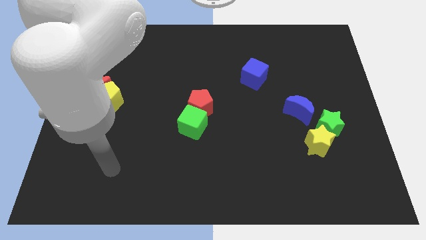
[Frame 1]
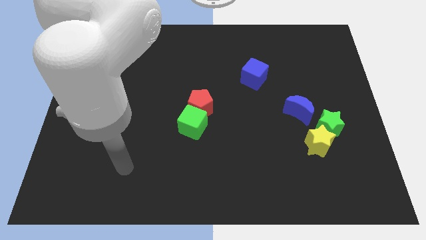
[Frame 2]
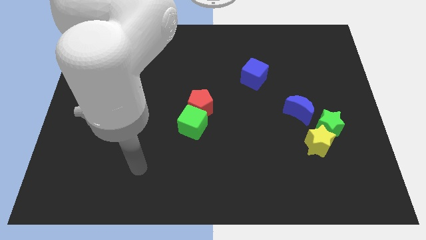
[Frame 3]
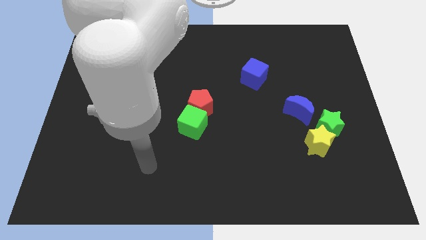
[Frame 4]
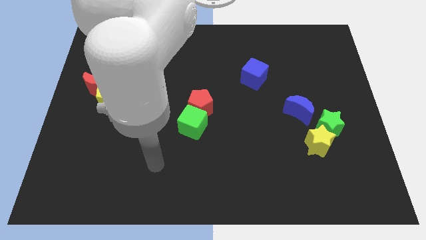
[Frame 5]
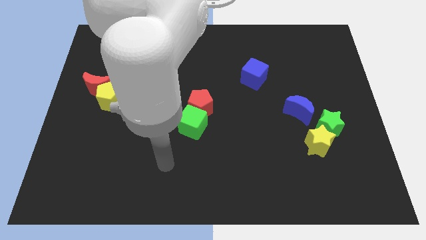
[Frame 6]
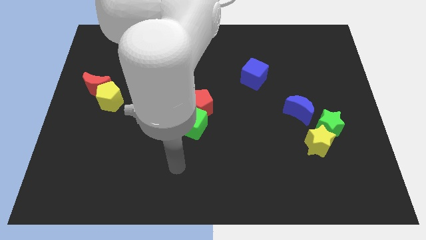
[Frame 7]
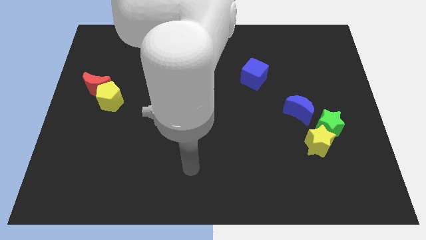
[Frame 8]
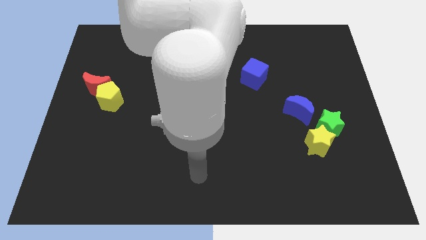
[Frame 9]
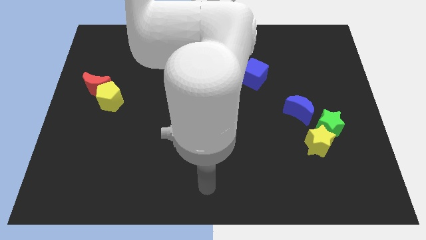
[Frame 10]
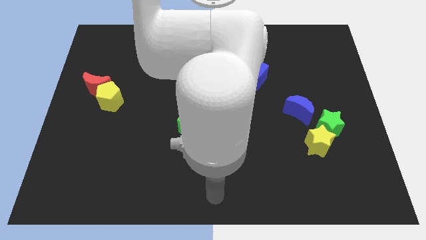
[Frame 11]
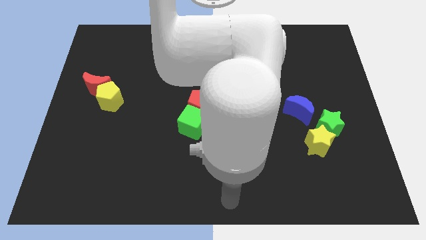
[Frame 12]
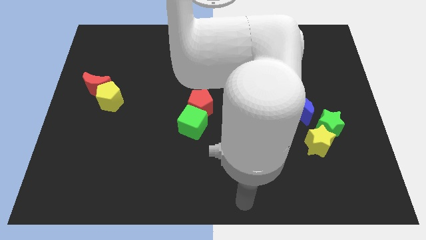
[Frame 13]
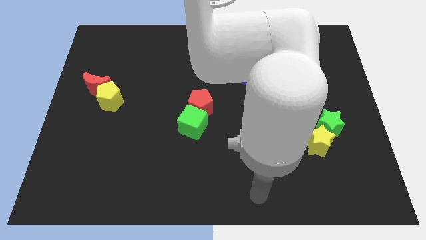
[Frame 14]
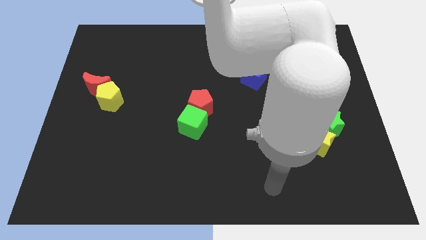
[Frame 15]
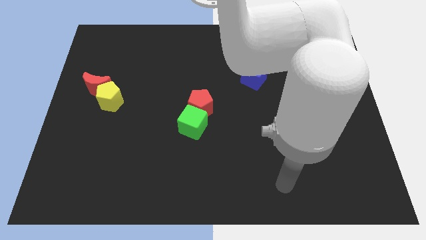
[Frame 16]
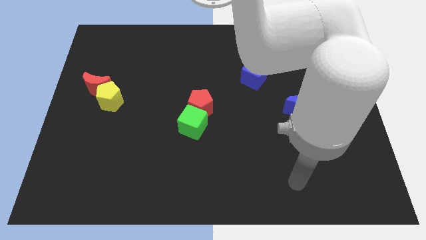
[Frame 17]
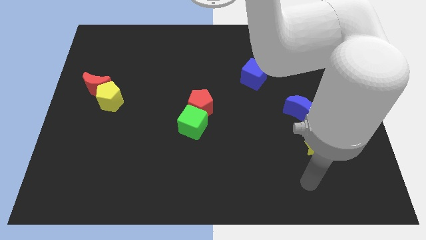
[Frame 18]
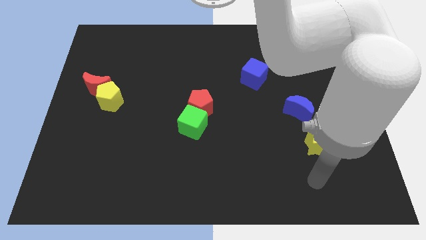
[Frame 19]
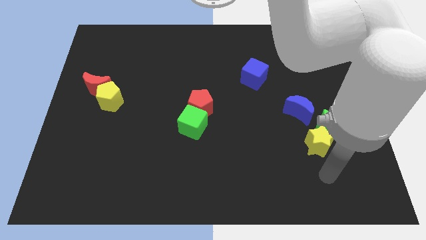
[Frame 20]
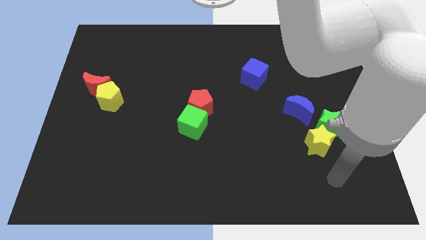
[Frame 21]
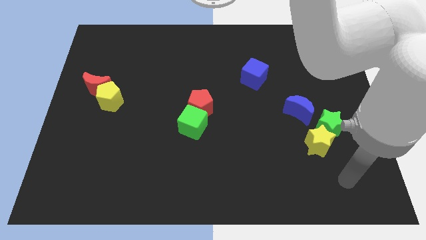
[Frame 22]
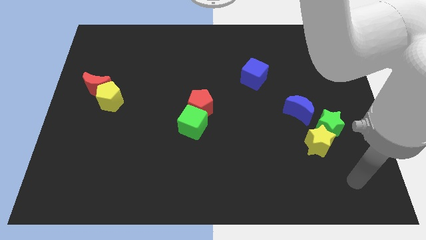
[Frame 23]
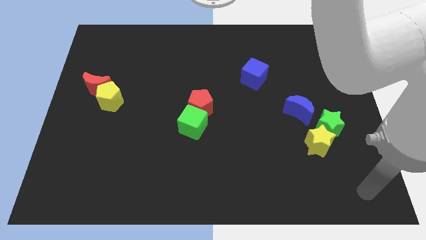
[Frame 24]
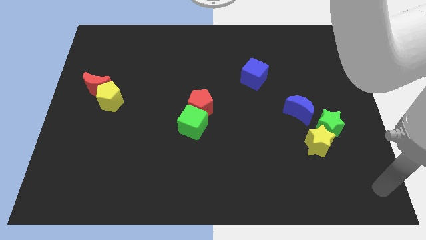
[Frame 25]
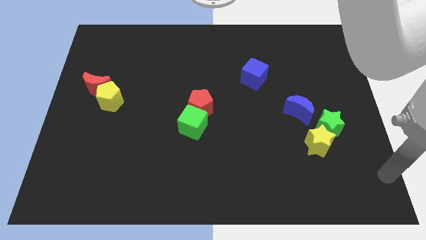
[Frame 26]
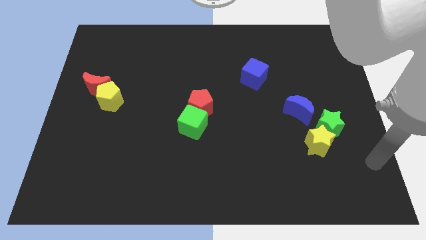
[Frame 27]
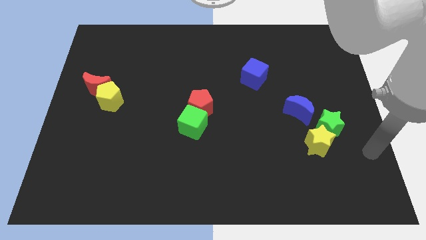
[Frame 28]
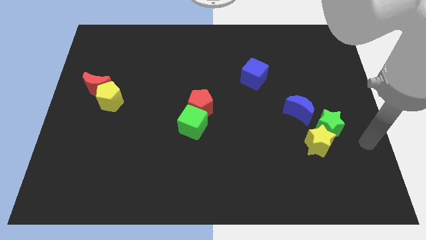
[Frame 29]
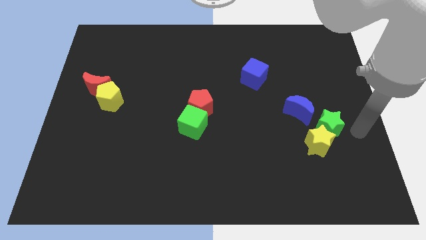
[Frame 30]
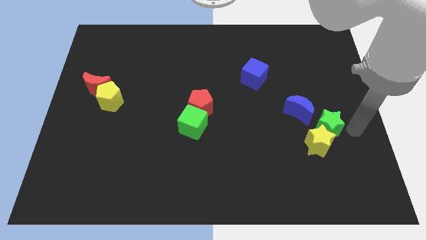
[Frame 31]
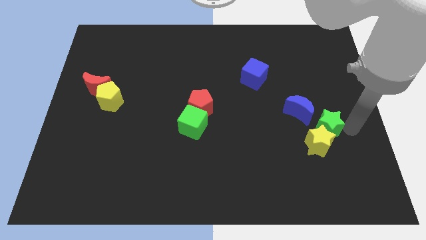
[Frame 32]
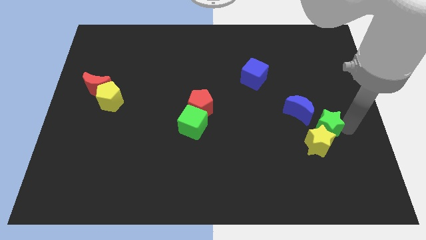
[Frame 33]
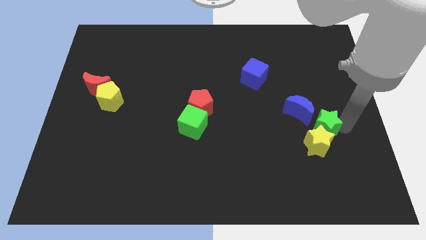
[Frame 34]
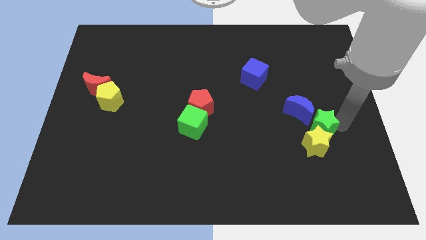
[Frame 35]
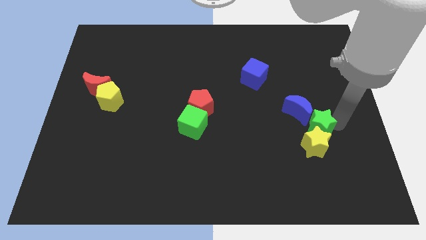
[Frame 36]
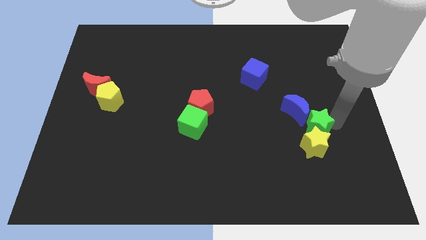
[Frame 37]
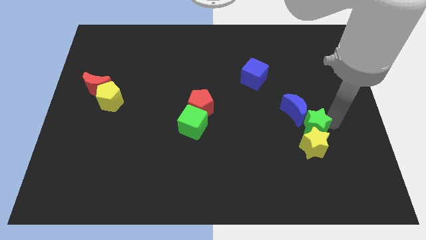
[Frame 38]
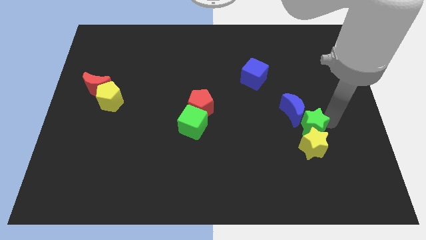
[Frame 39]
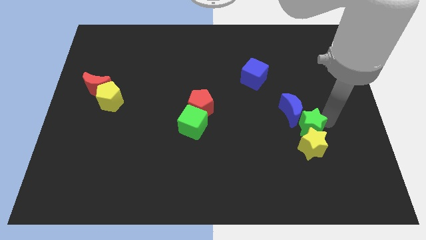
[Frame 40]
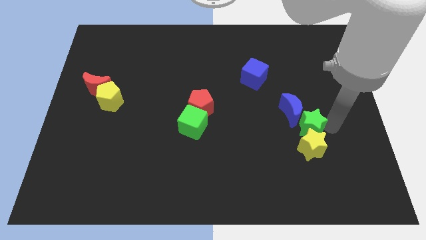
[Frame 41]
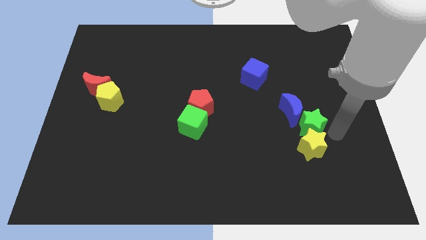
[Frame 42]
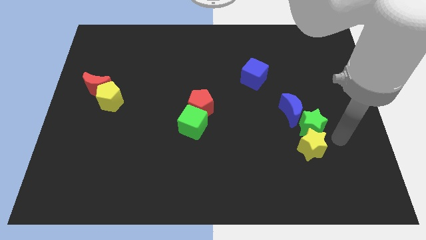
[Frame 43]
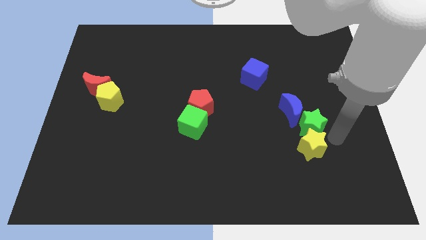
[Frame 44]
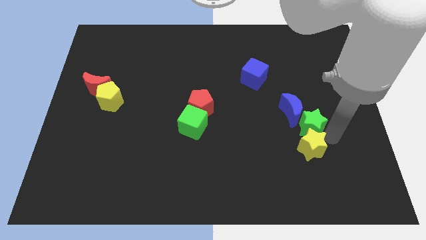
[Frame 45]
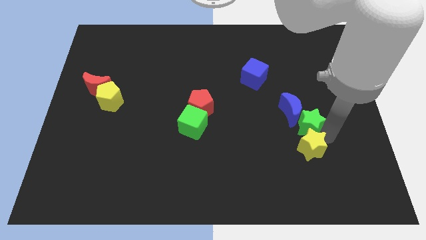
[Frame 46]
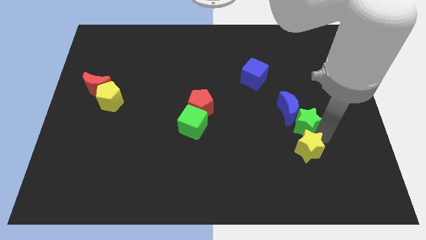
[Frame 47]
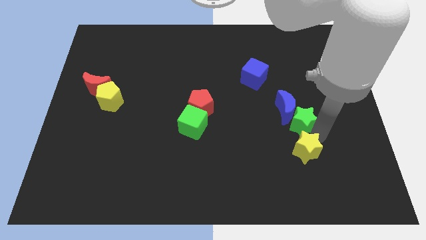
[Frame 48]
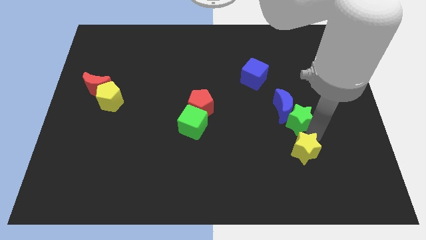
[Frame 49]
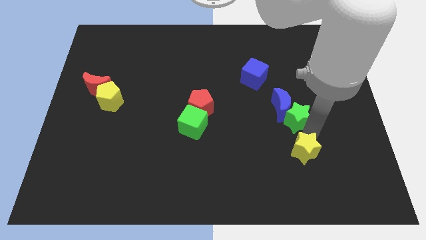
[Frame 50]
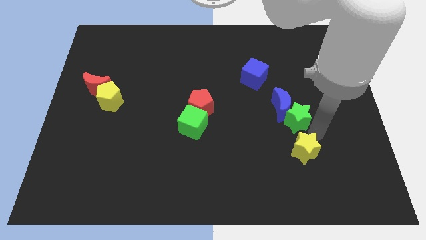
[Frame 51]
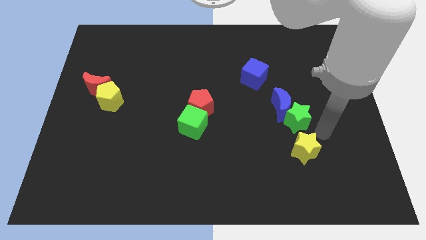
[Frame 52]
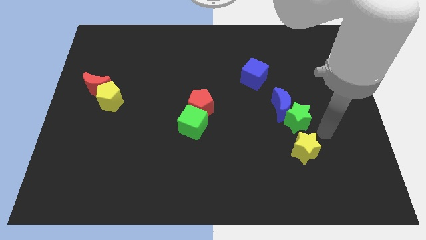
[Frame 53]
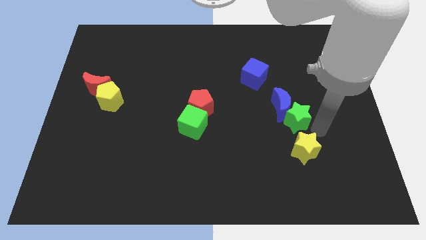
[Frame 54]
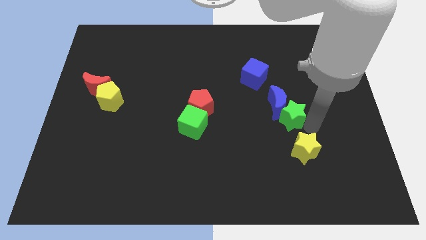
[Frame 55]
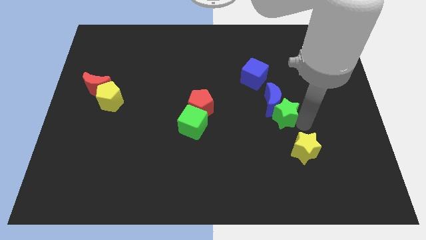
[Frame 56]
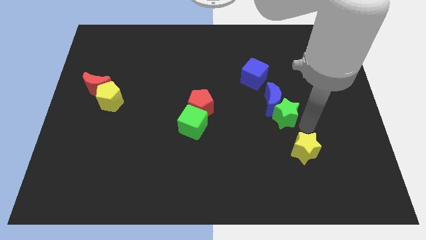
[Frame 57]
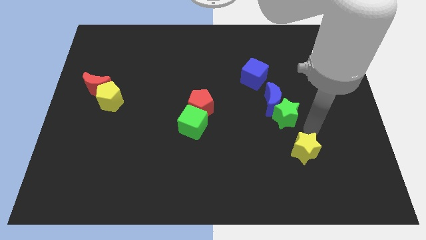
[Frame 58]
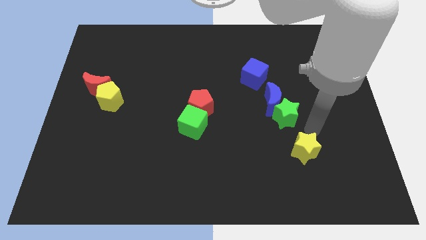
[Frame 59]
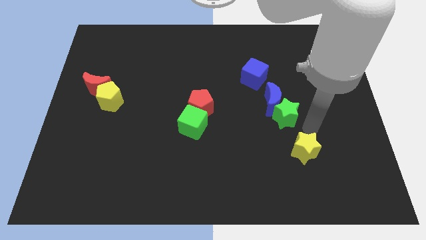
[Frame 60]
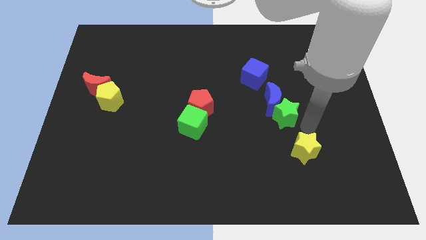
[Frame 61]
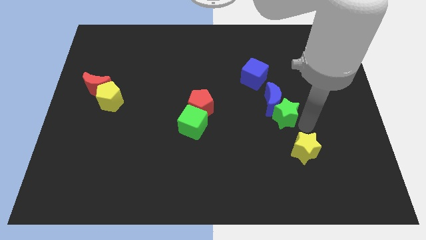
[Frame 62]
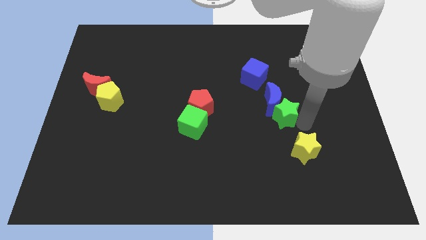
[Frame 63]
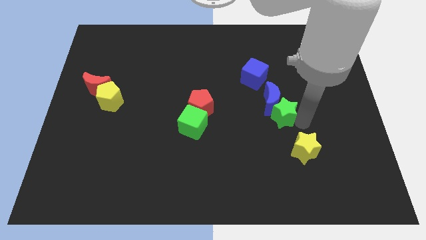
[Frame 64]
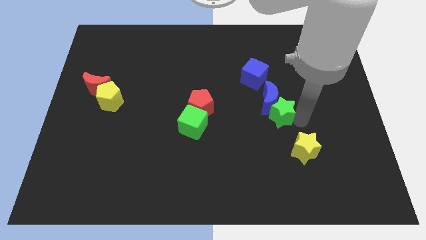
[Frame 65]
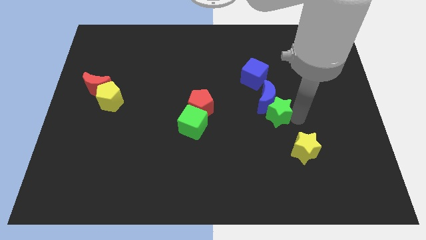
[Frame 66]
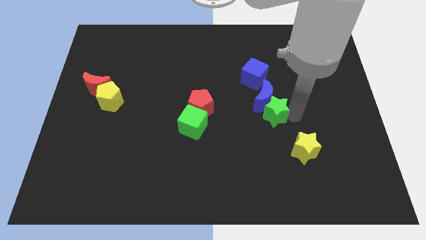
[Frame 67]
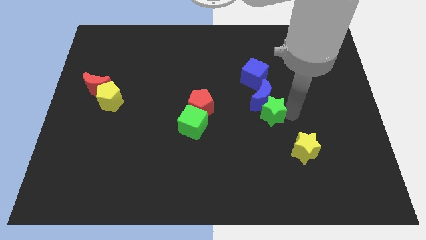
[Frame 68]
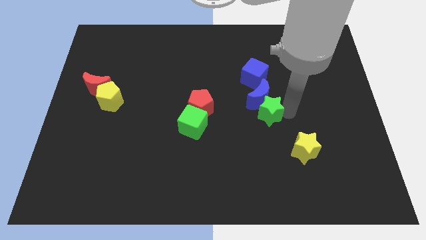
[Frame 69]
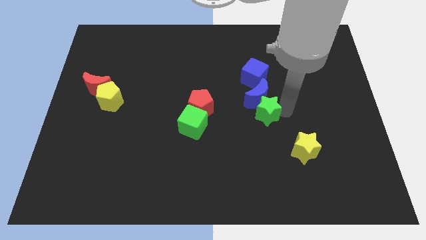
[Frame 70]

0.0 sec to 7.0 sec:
slide the green star right of the red pentagon

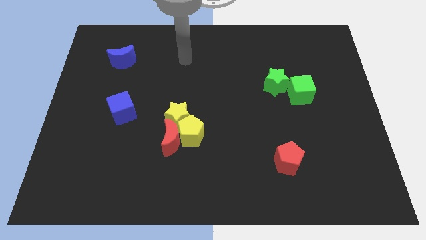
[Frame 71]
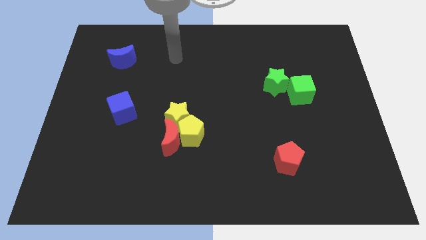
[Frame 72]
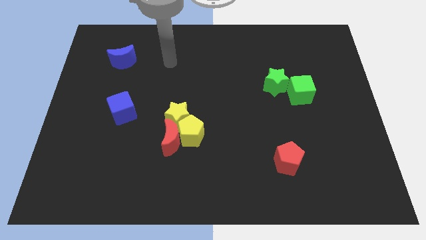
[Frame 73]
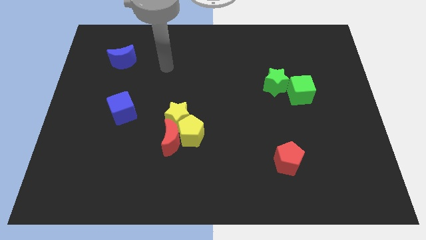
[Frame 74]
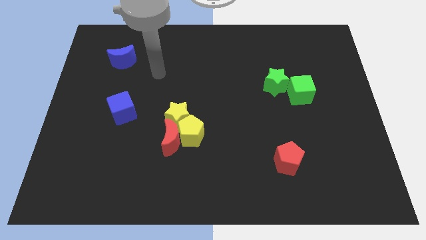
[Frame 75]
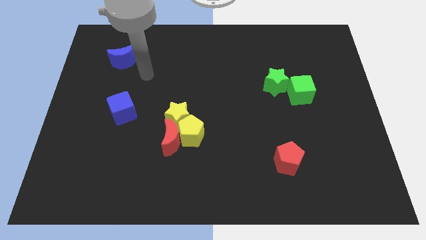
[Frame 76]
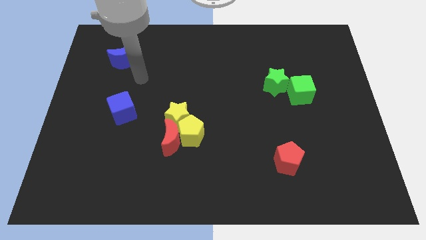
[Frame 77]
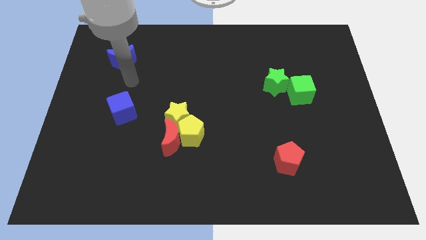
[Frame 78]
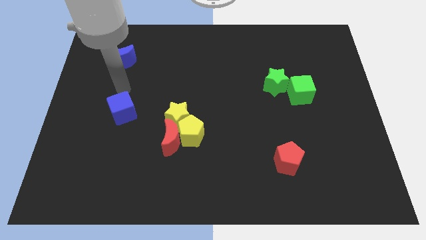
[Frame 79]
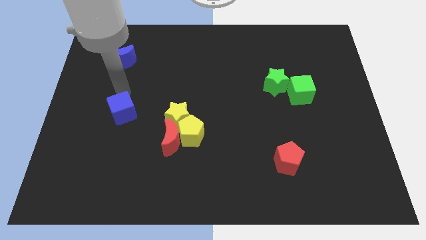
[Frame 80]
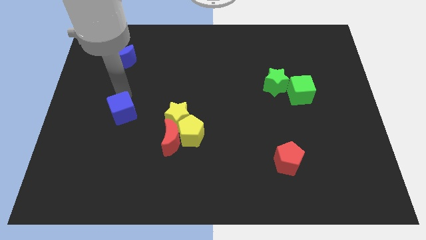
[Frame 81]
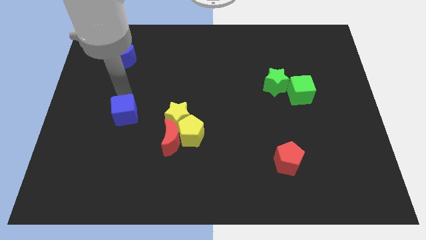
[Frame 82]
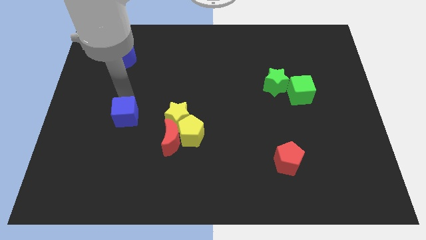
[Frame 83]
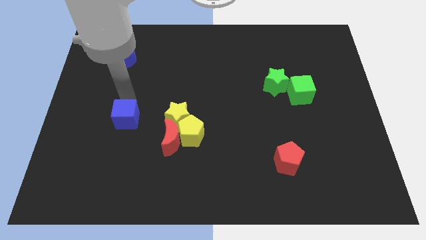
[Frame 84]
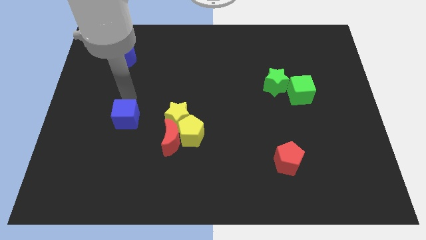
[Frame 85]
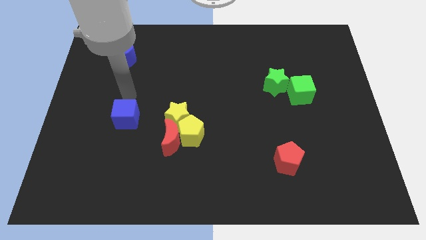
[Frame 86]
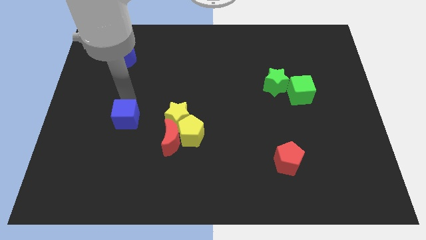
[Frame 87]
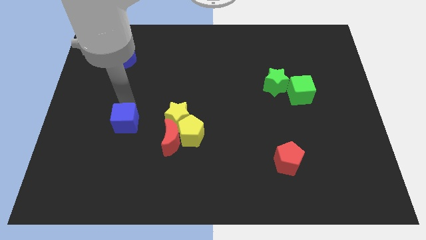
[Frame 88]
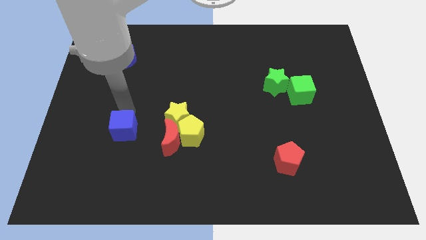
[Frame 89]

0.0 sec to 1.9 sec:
push the blue cube left of the red moon
